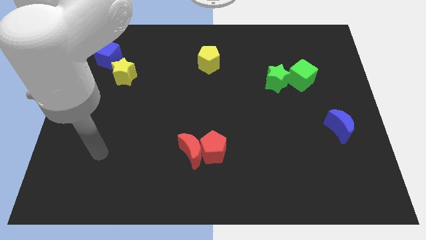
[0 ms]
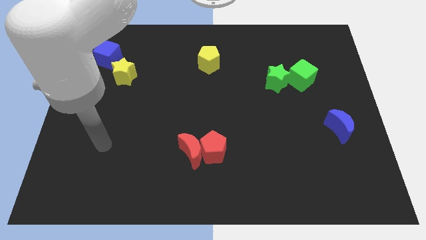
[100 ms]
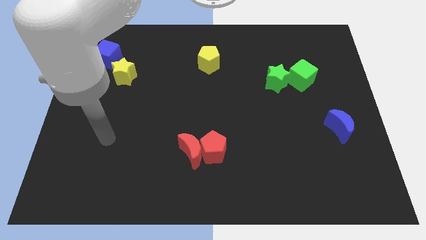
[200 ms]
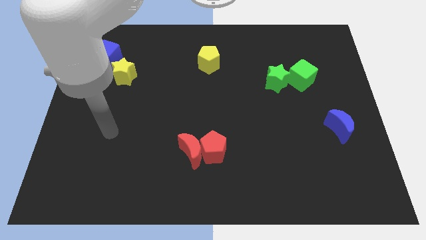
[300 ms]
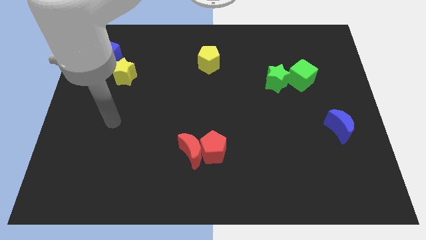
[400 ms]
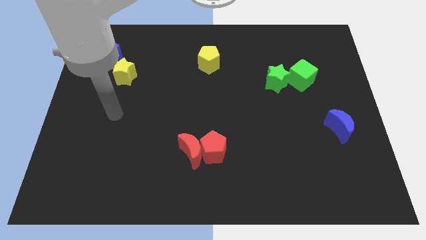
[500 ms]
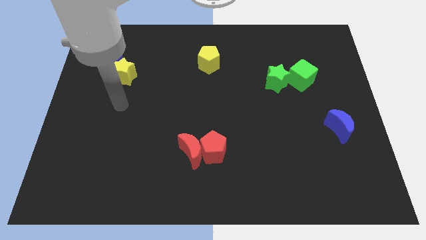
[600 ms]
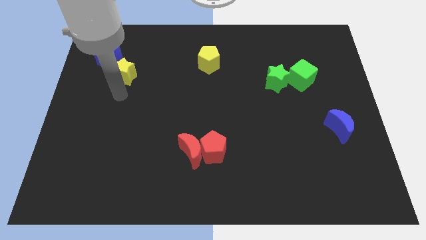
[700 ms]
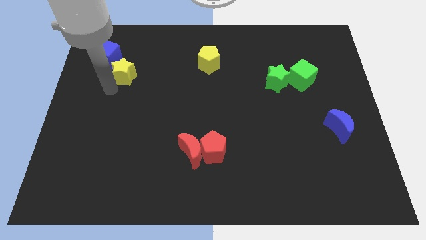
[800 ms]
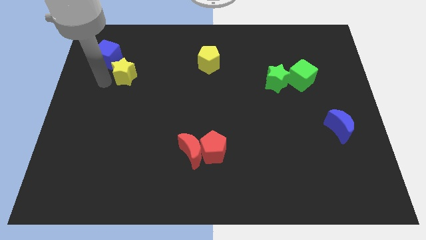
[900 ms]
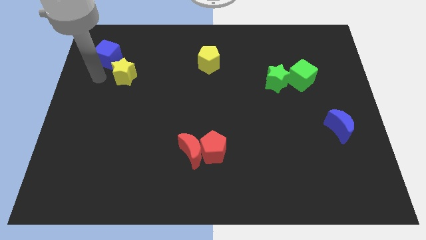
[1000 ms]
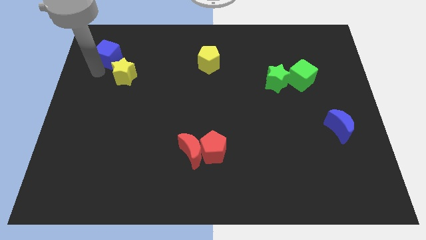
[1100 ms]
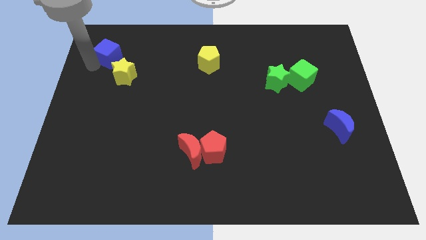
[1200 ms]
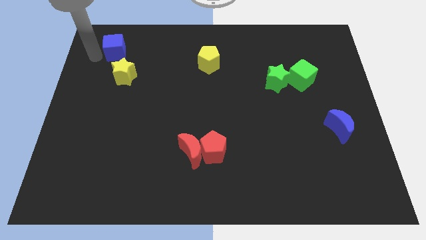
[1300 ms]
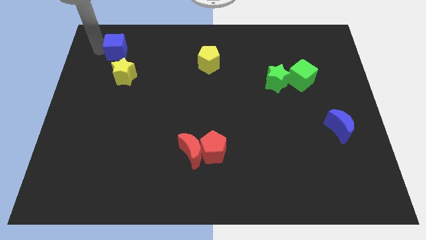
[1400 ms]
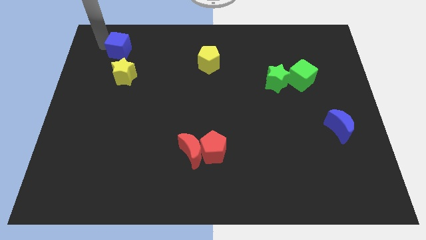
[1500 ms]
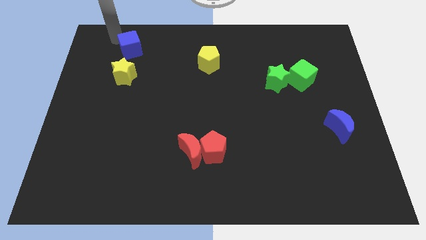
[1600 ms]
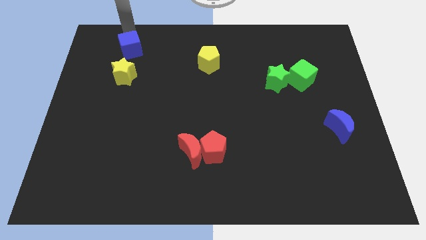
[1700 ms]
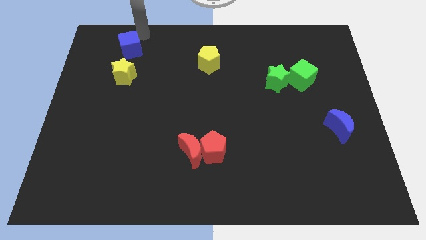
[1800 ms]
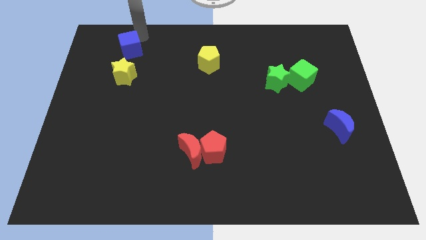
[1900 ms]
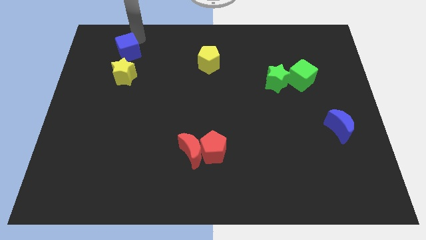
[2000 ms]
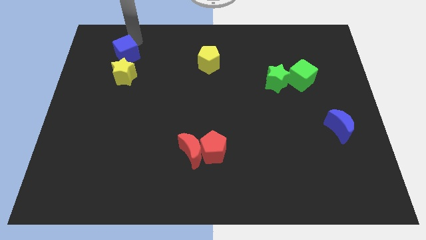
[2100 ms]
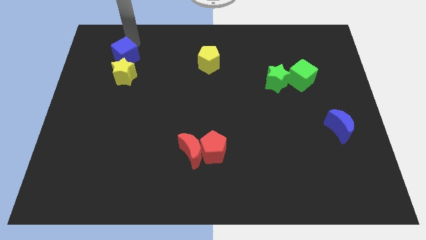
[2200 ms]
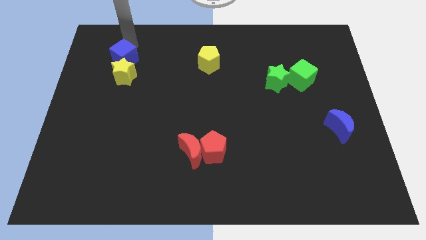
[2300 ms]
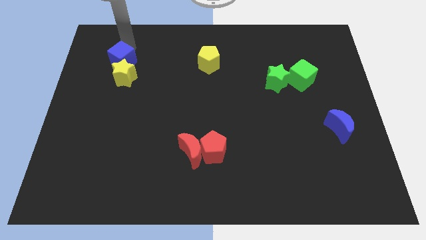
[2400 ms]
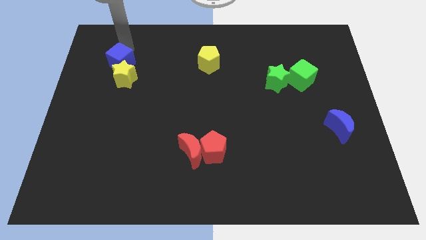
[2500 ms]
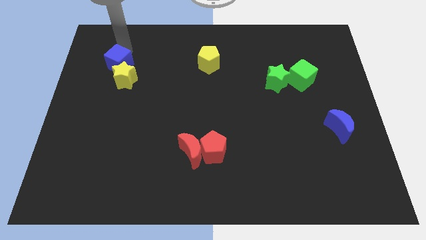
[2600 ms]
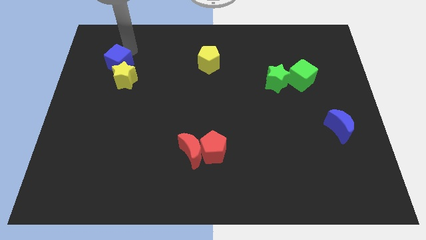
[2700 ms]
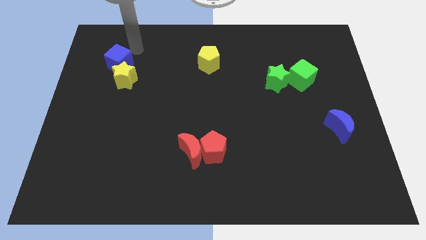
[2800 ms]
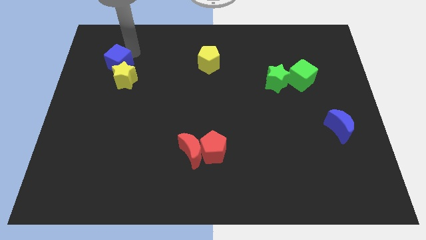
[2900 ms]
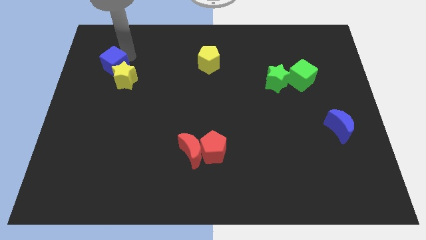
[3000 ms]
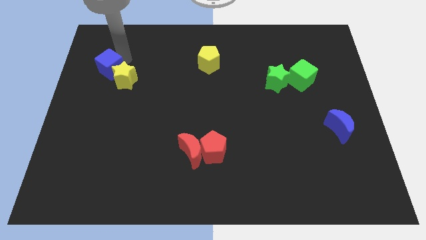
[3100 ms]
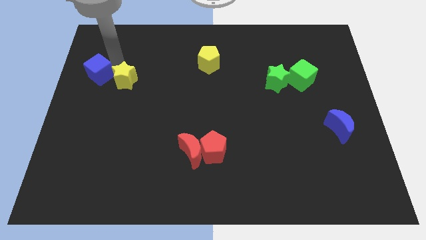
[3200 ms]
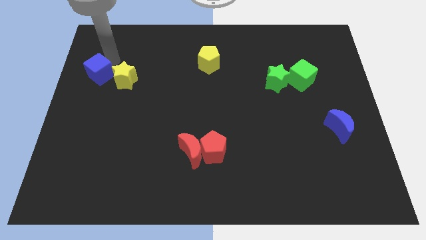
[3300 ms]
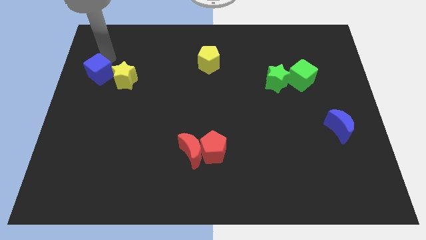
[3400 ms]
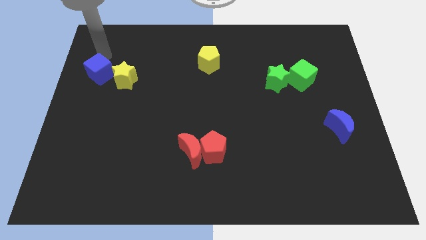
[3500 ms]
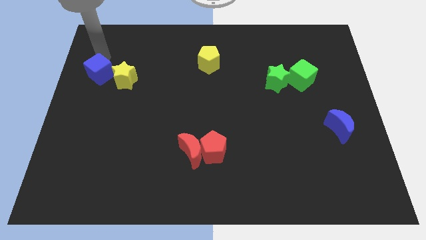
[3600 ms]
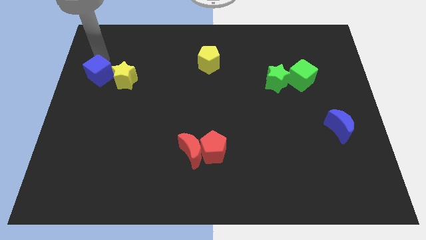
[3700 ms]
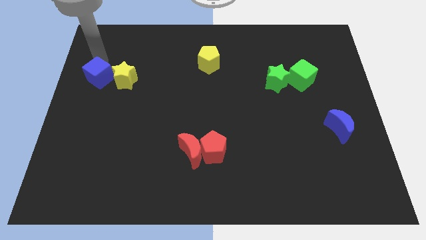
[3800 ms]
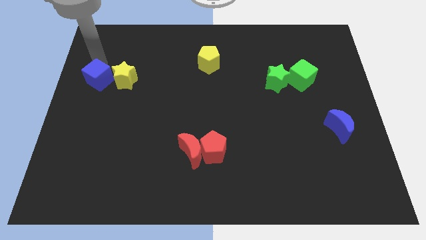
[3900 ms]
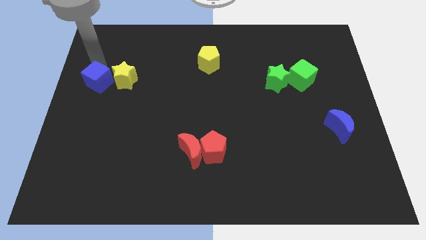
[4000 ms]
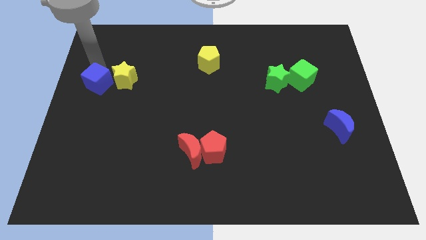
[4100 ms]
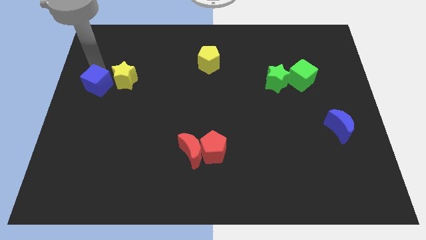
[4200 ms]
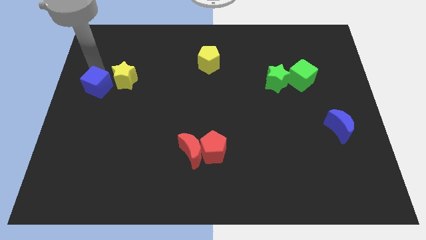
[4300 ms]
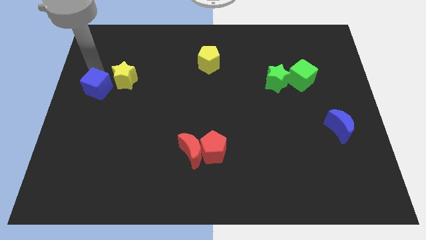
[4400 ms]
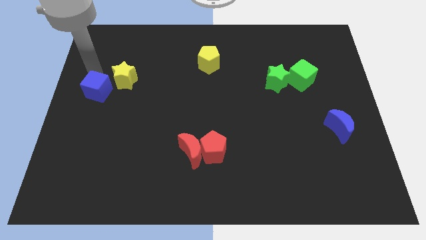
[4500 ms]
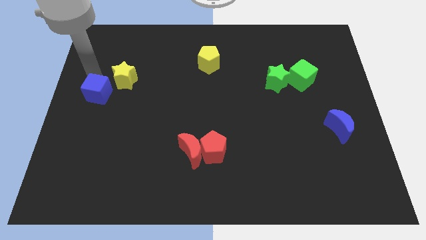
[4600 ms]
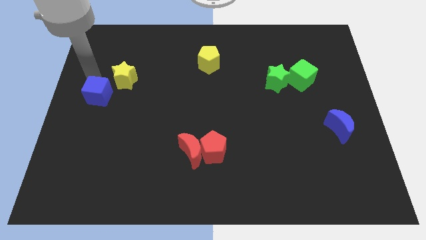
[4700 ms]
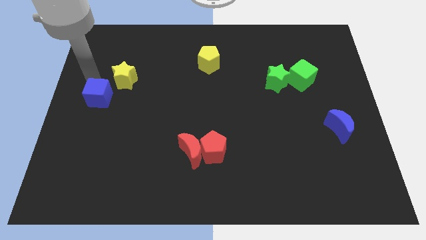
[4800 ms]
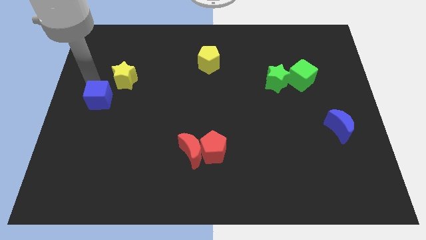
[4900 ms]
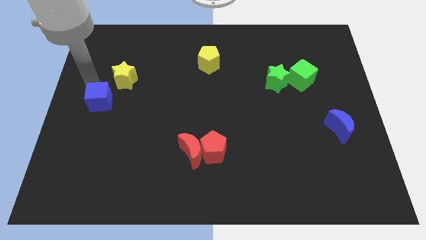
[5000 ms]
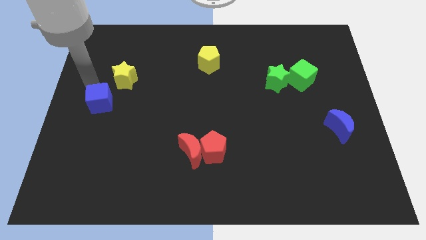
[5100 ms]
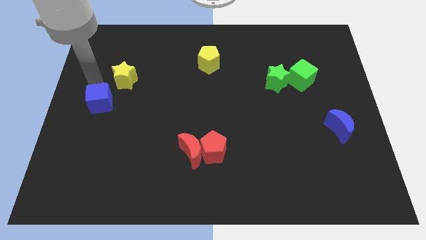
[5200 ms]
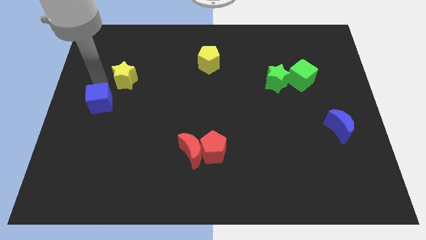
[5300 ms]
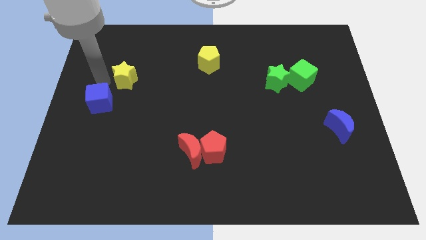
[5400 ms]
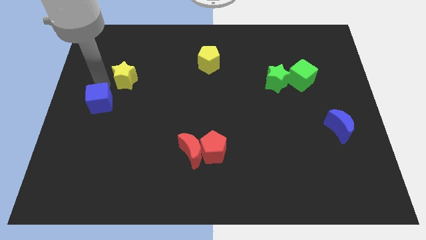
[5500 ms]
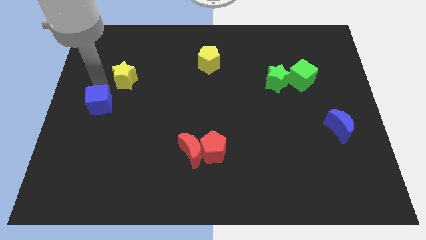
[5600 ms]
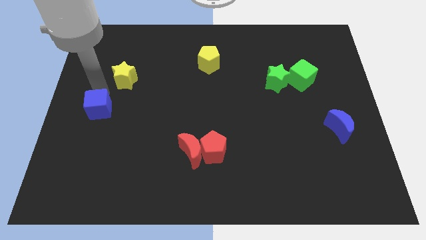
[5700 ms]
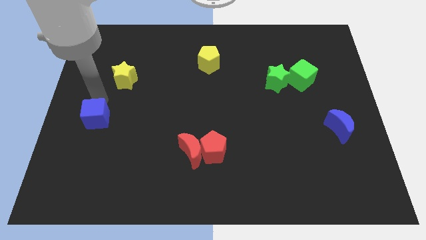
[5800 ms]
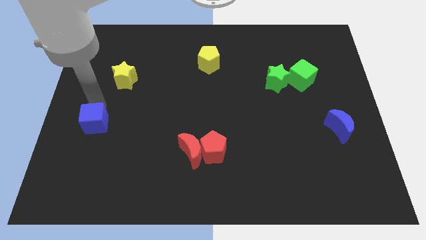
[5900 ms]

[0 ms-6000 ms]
slide the blue cube downwards

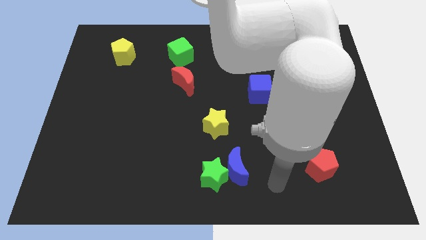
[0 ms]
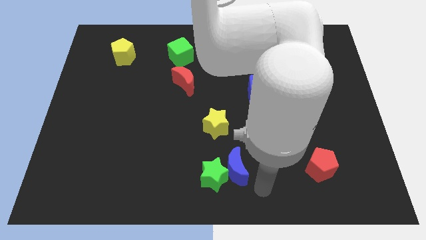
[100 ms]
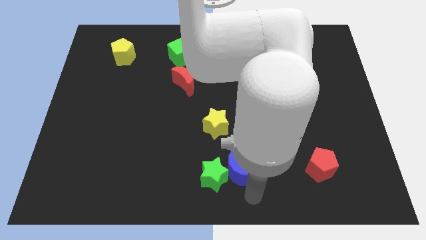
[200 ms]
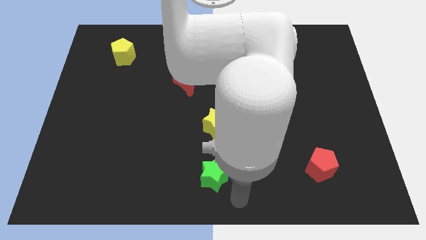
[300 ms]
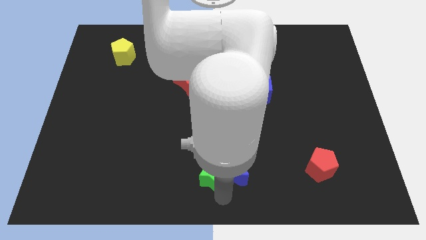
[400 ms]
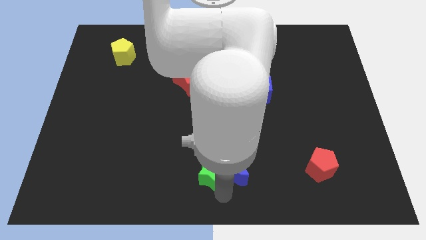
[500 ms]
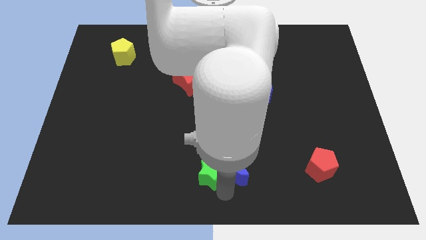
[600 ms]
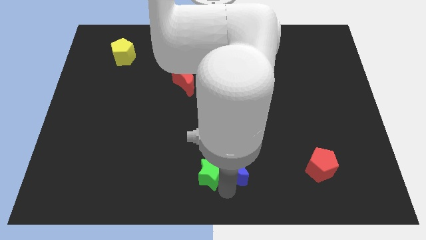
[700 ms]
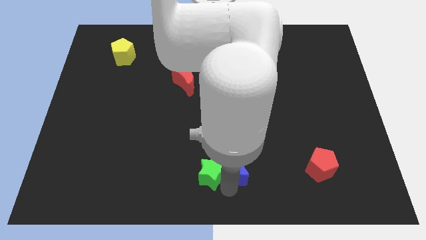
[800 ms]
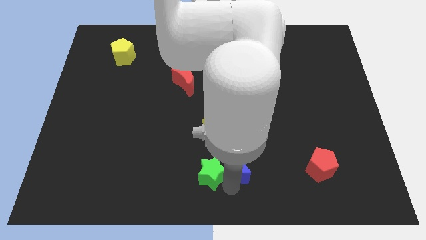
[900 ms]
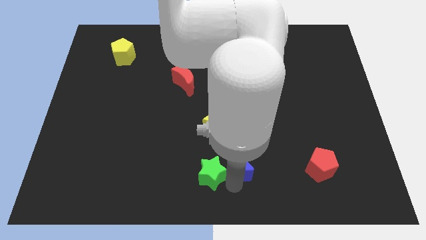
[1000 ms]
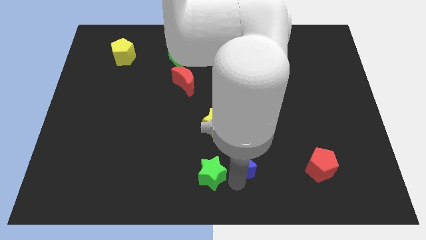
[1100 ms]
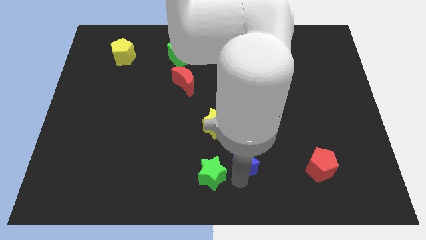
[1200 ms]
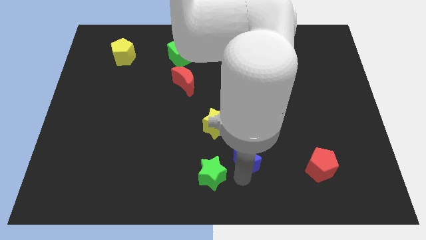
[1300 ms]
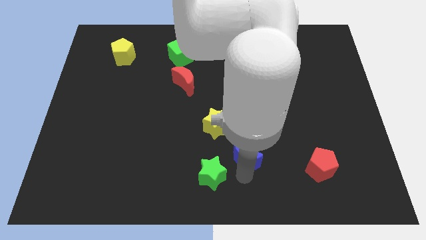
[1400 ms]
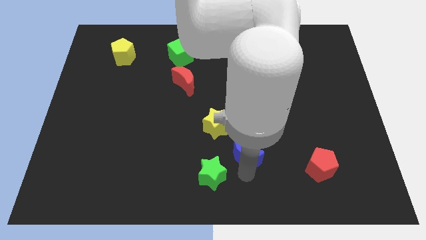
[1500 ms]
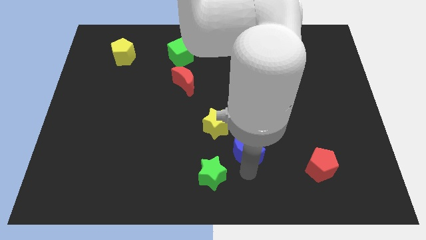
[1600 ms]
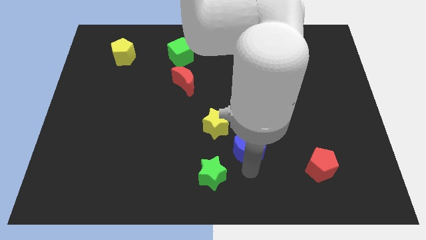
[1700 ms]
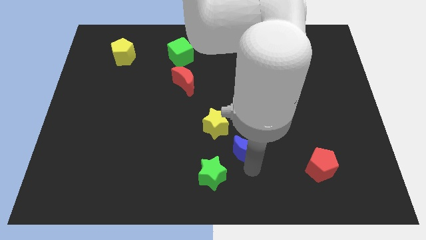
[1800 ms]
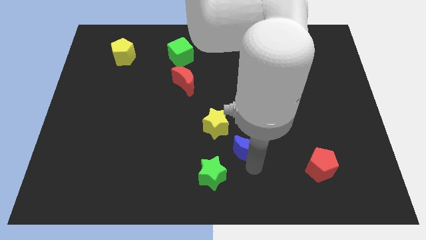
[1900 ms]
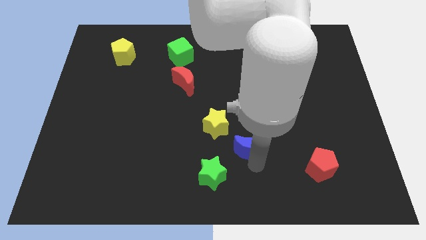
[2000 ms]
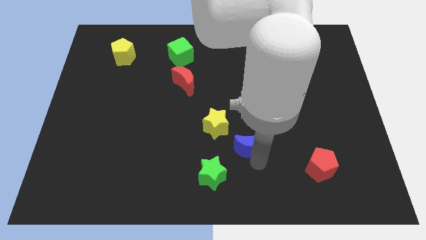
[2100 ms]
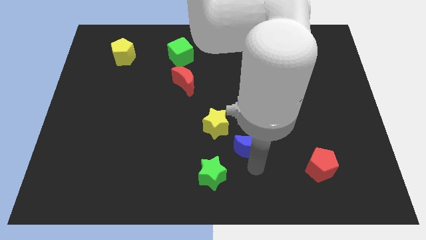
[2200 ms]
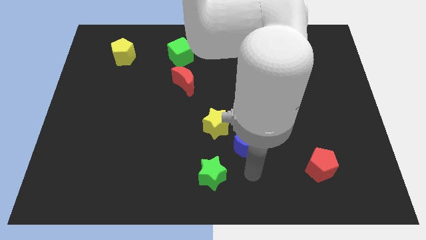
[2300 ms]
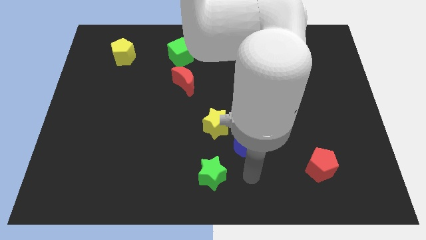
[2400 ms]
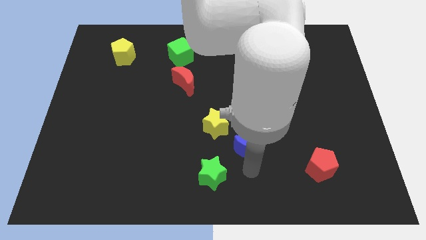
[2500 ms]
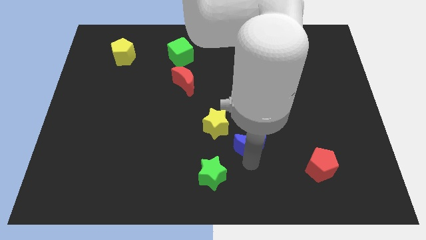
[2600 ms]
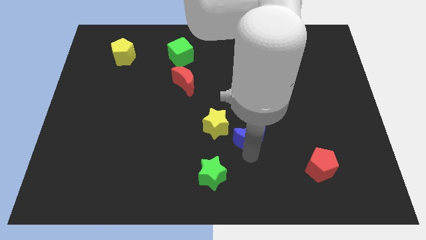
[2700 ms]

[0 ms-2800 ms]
push the blue moon slightly up
